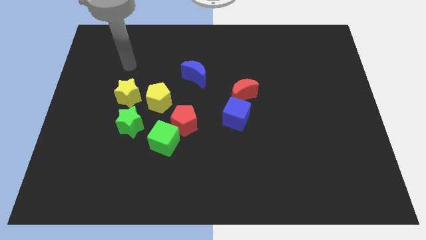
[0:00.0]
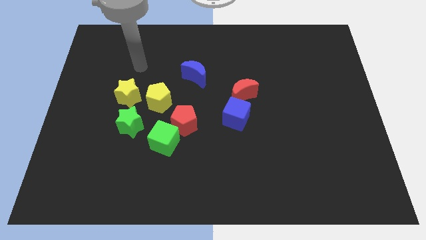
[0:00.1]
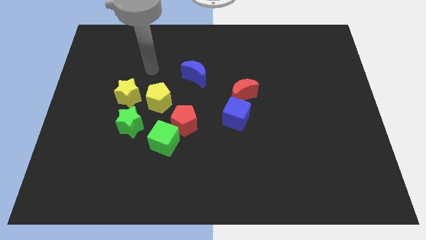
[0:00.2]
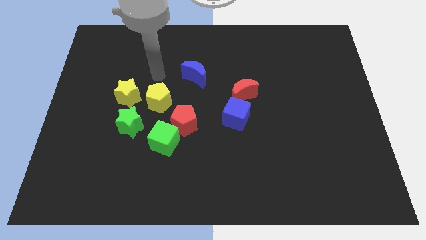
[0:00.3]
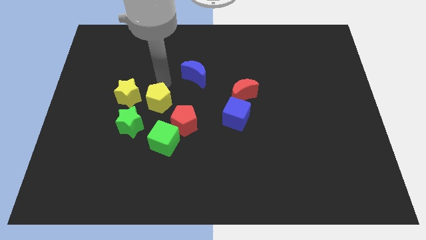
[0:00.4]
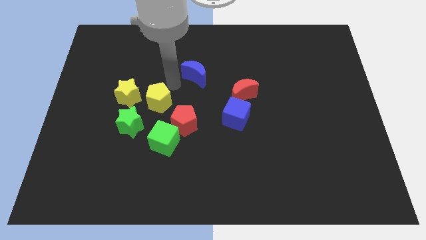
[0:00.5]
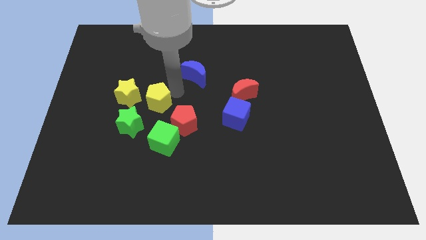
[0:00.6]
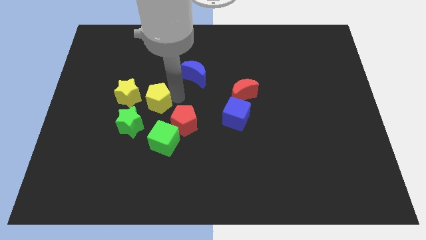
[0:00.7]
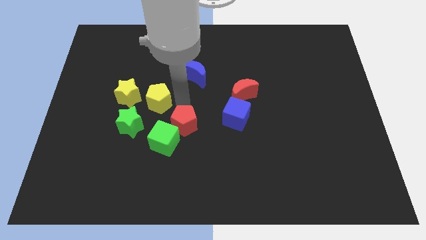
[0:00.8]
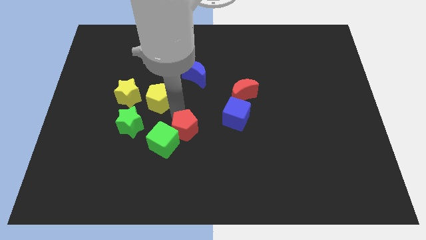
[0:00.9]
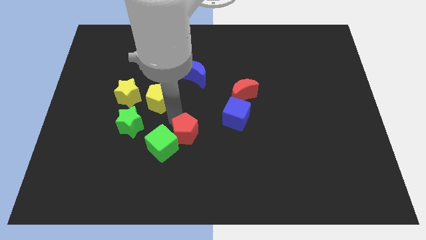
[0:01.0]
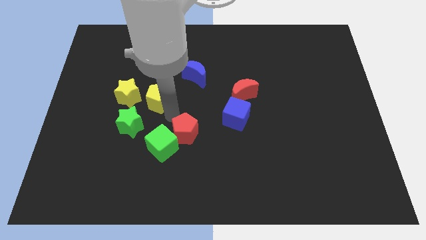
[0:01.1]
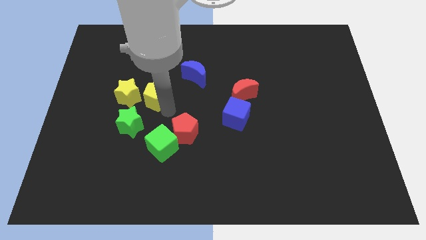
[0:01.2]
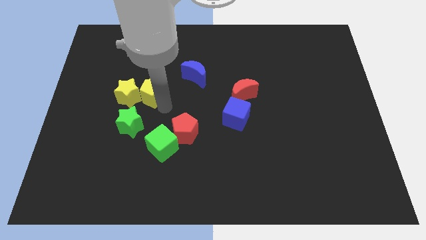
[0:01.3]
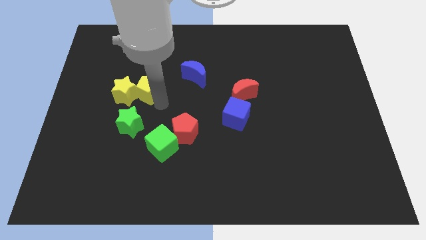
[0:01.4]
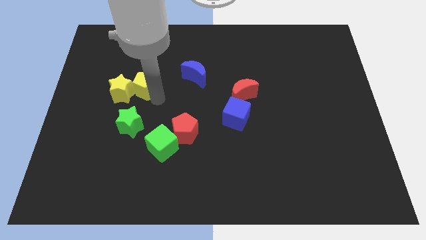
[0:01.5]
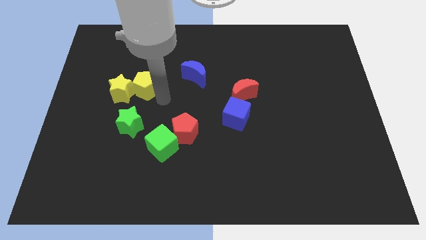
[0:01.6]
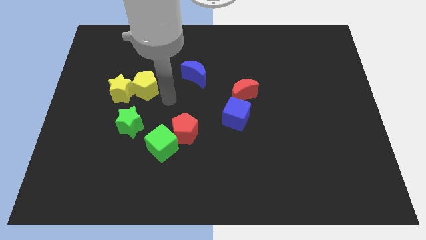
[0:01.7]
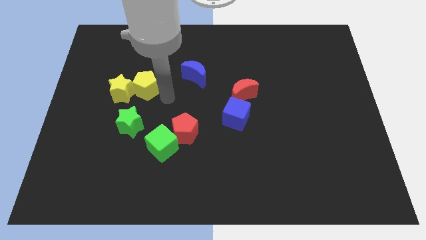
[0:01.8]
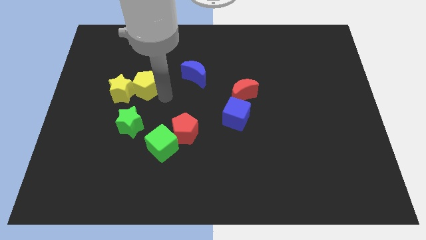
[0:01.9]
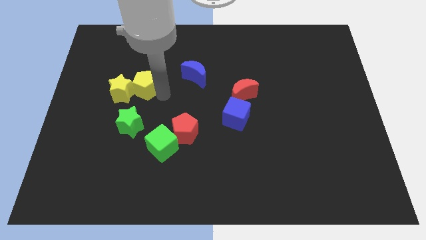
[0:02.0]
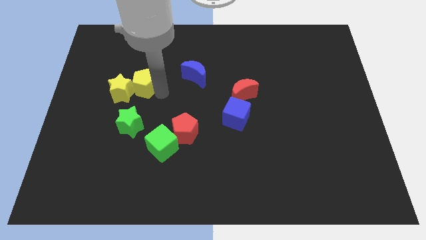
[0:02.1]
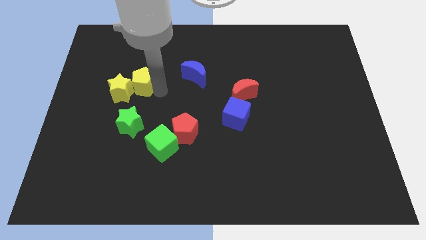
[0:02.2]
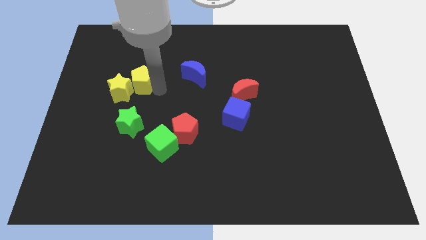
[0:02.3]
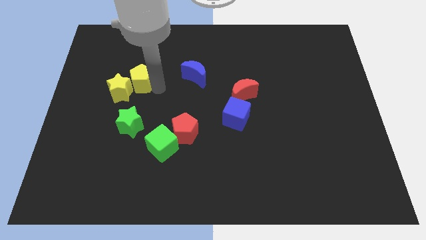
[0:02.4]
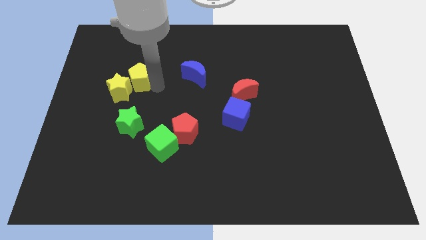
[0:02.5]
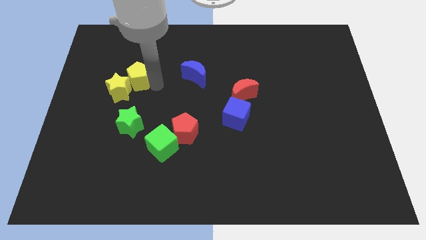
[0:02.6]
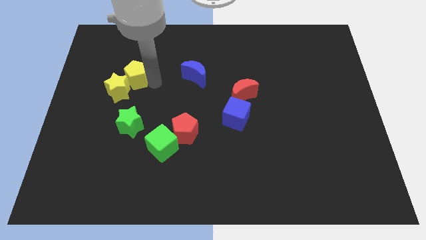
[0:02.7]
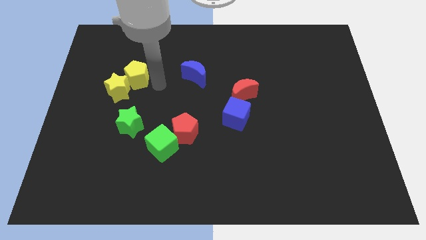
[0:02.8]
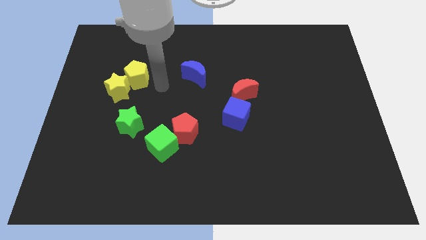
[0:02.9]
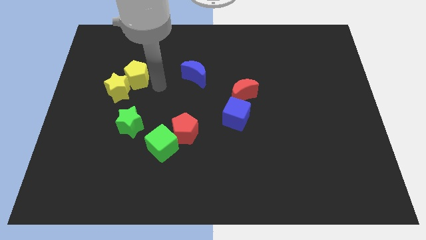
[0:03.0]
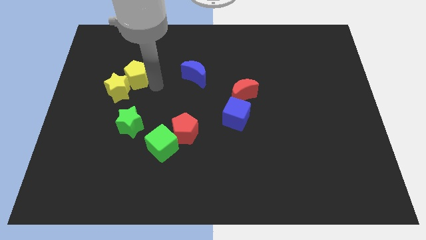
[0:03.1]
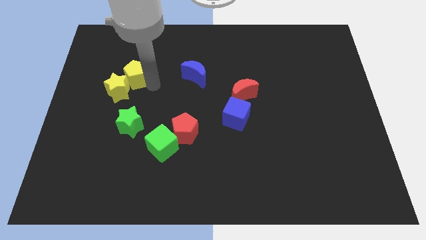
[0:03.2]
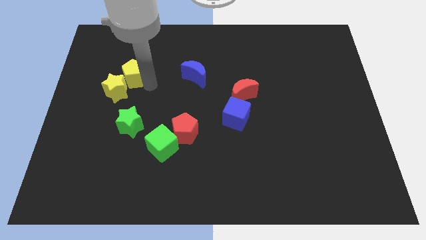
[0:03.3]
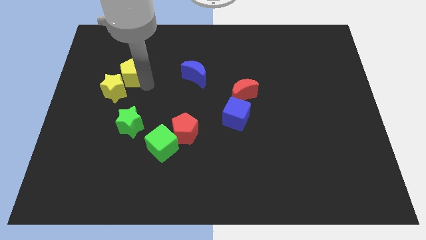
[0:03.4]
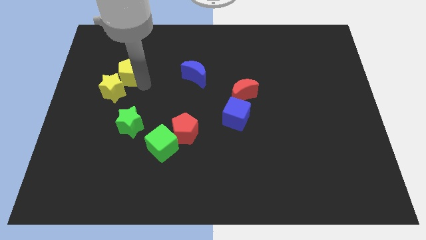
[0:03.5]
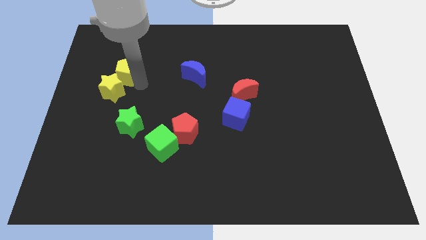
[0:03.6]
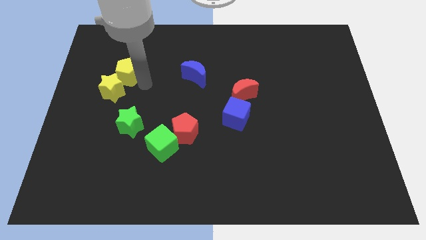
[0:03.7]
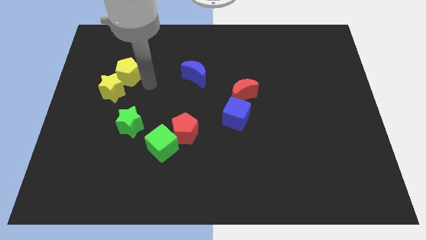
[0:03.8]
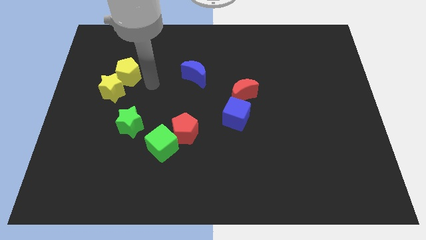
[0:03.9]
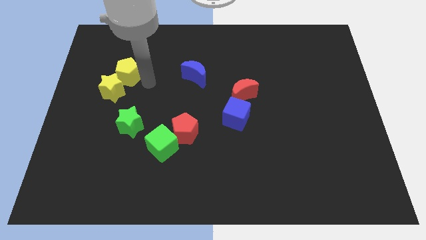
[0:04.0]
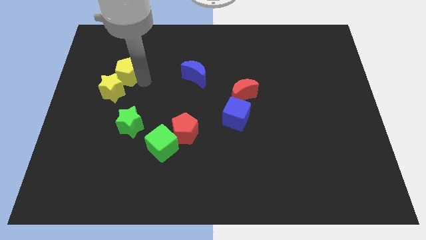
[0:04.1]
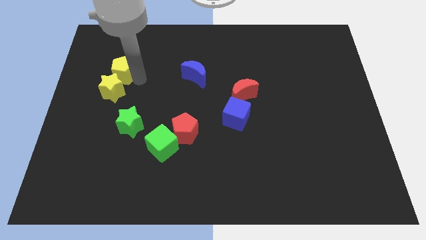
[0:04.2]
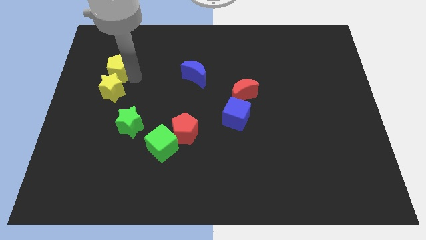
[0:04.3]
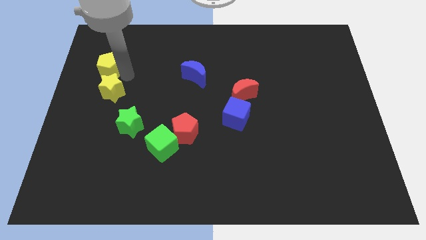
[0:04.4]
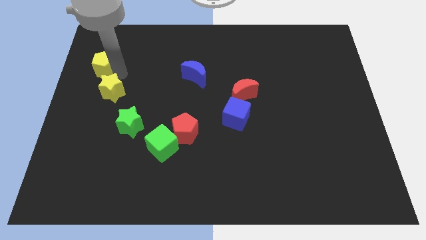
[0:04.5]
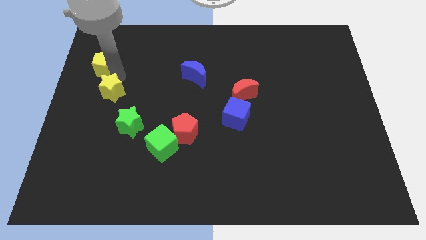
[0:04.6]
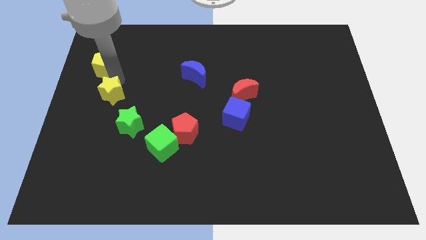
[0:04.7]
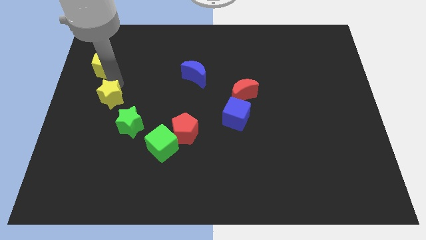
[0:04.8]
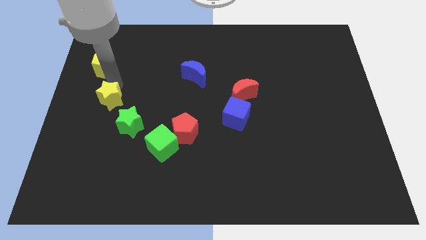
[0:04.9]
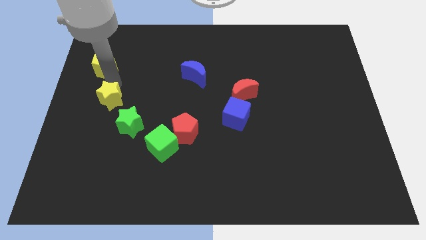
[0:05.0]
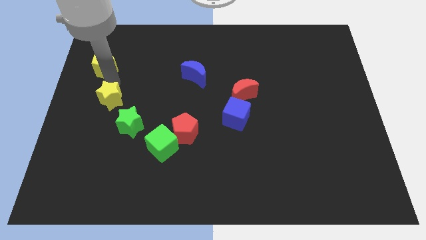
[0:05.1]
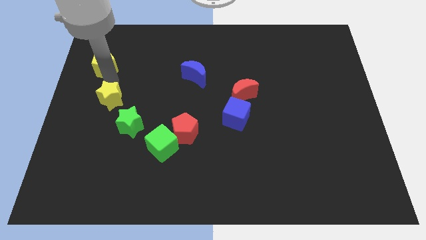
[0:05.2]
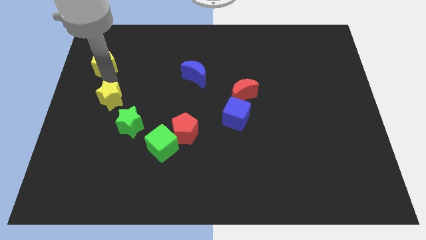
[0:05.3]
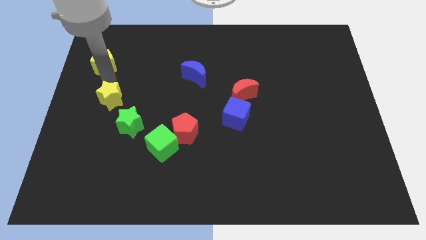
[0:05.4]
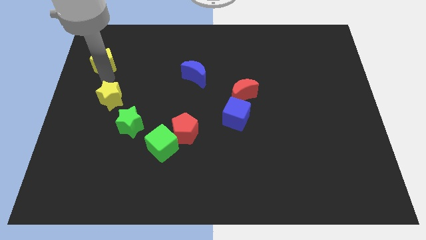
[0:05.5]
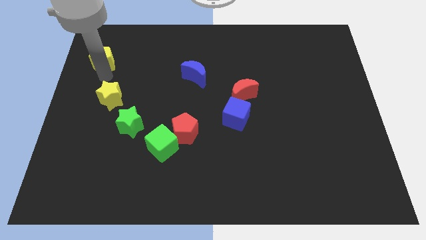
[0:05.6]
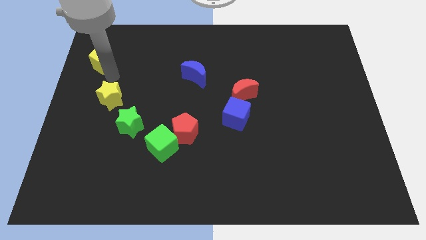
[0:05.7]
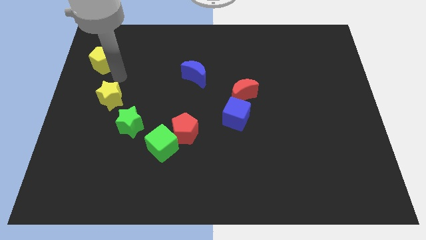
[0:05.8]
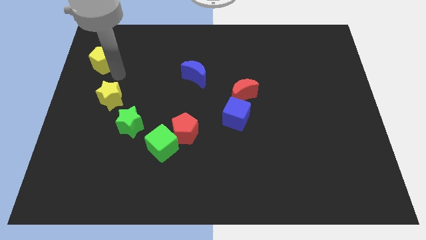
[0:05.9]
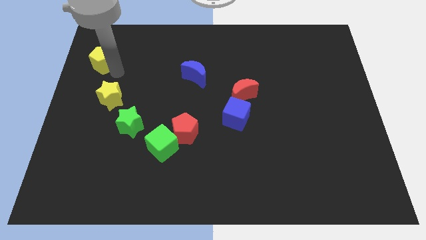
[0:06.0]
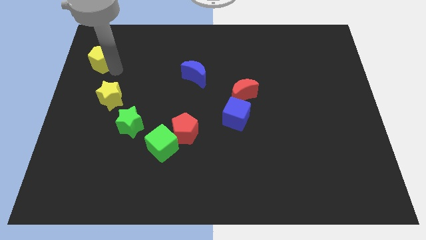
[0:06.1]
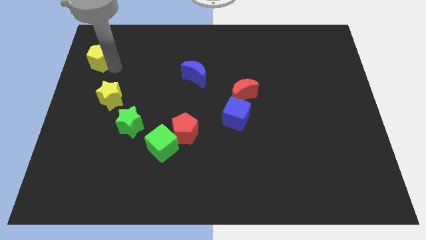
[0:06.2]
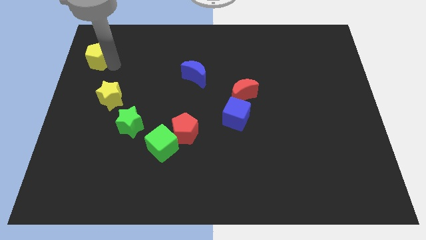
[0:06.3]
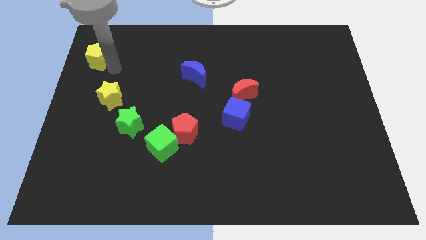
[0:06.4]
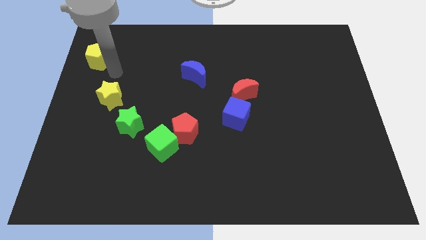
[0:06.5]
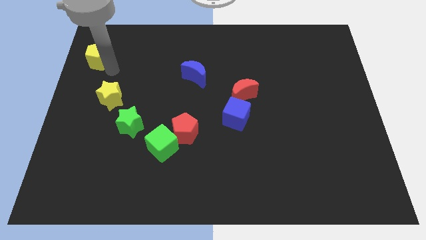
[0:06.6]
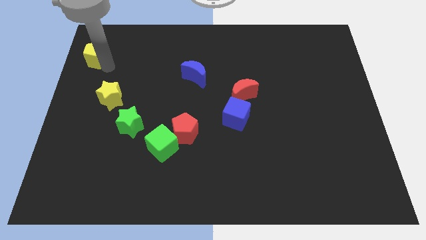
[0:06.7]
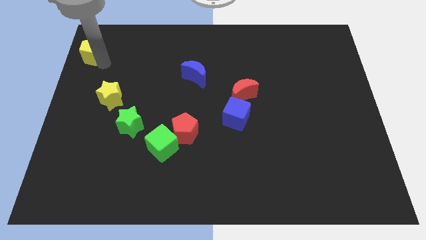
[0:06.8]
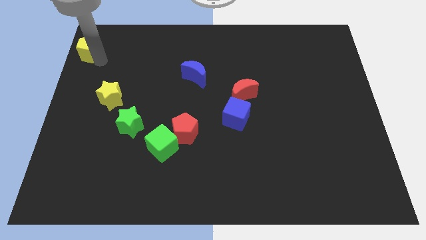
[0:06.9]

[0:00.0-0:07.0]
push the yellow pentagon to the top left corner
